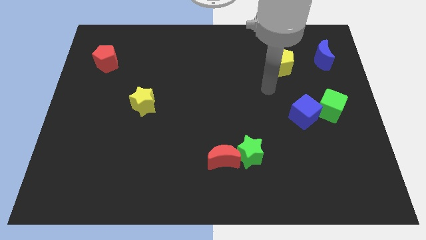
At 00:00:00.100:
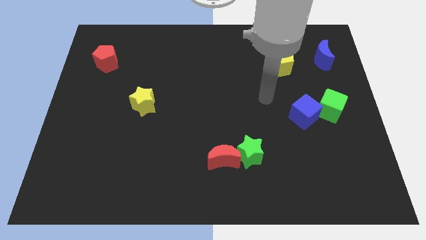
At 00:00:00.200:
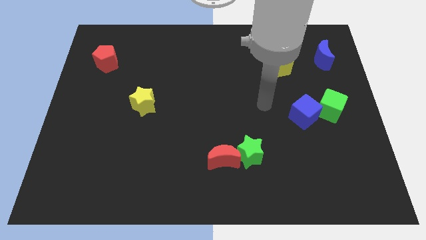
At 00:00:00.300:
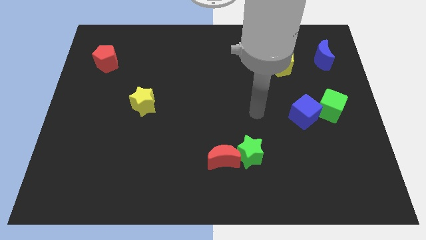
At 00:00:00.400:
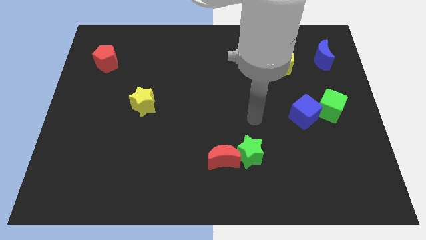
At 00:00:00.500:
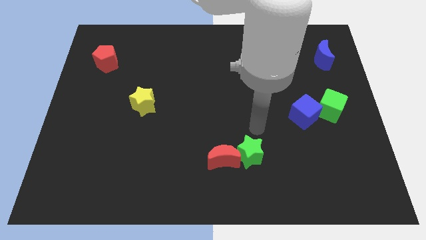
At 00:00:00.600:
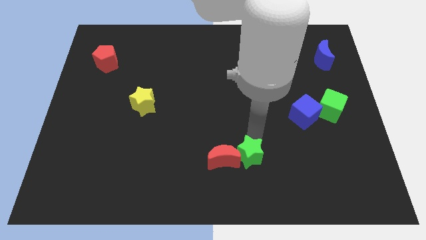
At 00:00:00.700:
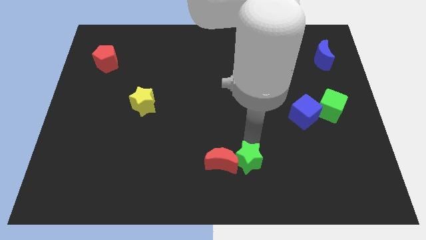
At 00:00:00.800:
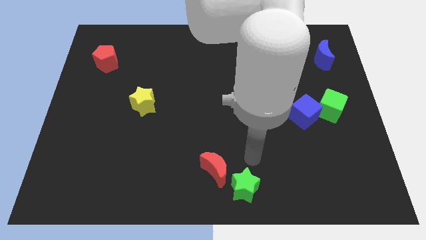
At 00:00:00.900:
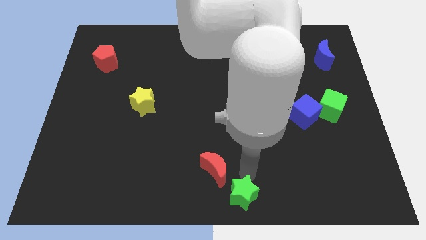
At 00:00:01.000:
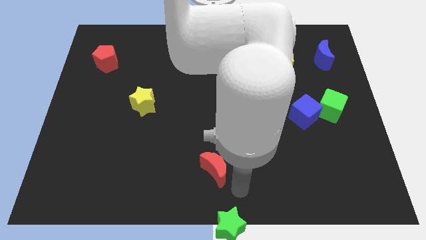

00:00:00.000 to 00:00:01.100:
move the red moon away from the green star

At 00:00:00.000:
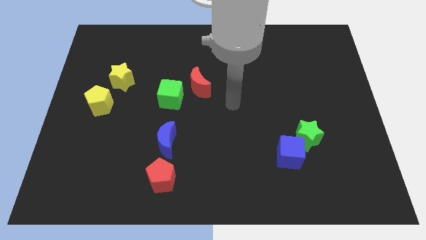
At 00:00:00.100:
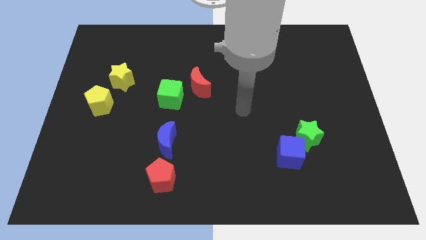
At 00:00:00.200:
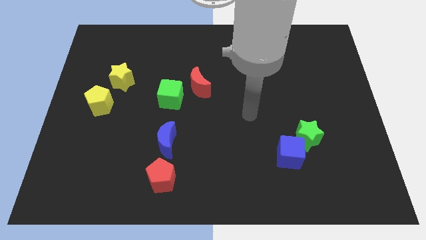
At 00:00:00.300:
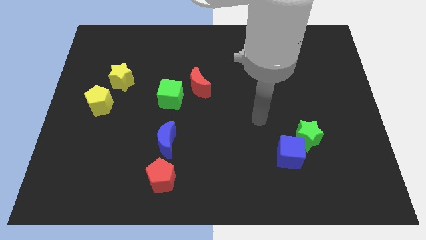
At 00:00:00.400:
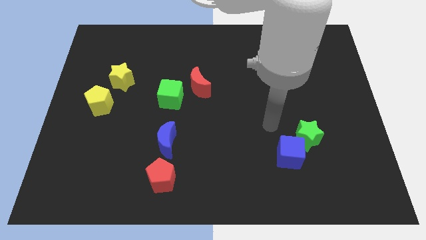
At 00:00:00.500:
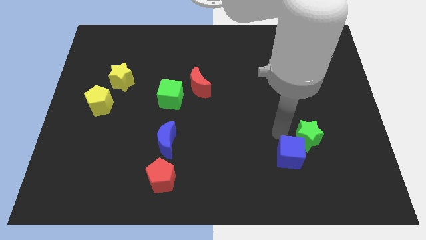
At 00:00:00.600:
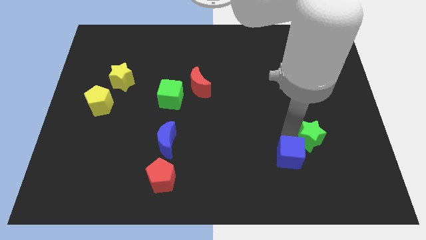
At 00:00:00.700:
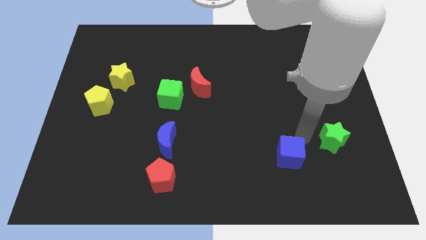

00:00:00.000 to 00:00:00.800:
separate the blue cube from the green star

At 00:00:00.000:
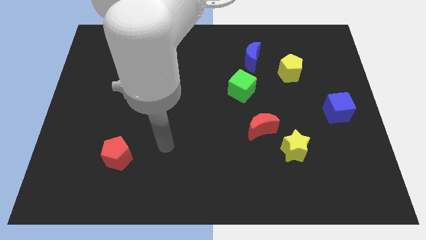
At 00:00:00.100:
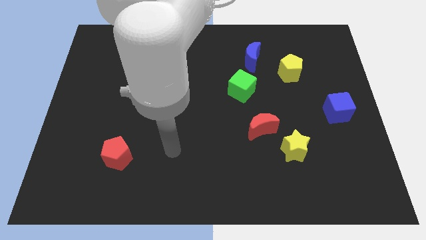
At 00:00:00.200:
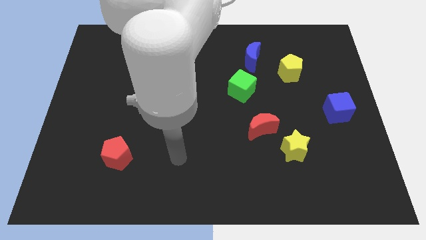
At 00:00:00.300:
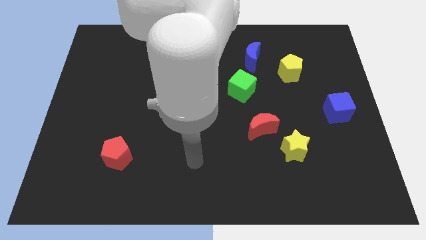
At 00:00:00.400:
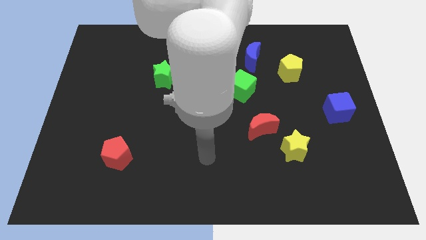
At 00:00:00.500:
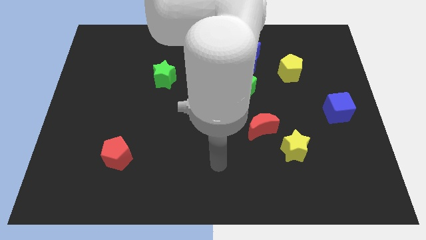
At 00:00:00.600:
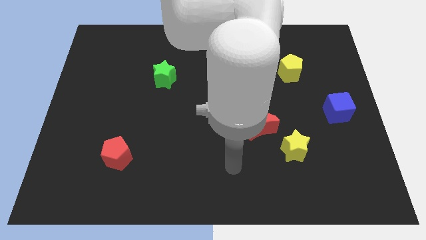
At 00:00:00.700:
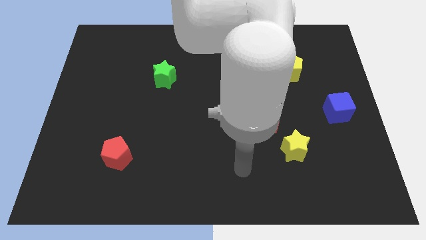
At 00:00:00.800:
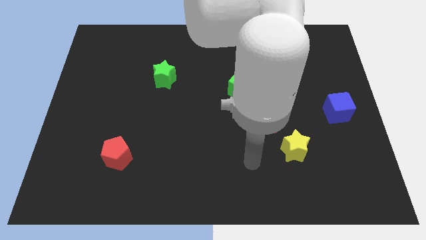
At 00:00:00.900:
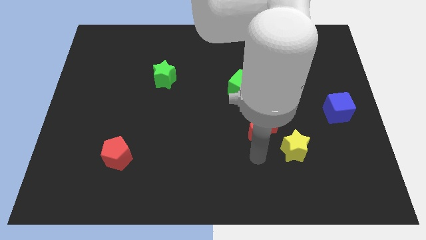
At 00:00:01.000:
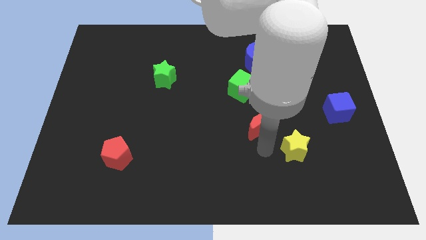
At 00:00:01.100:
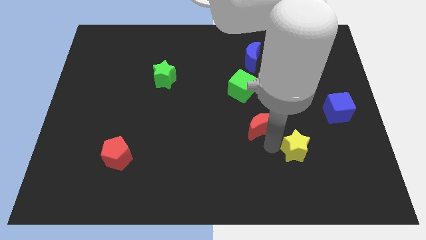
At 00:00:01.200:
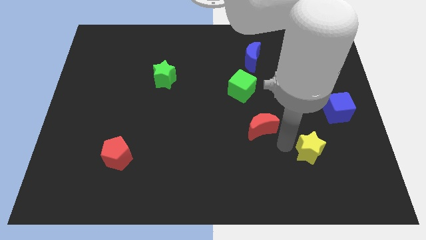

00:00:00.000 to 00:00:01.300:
pull the red moon apart from the yellow star

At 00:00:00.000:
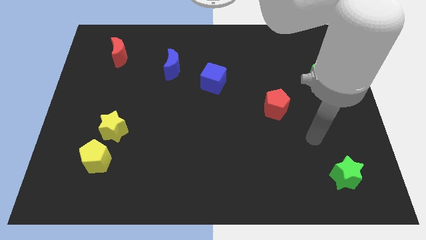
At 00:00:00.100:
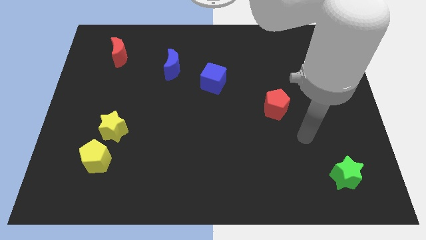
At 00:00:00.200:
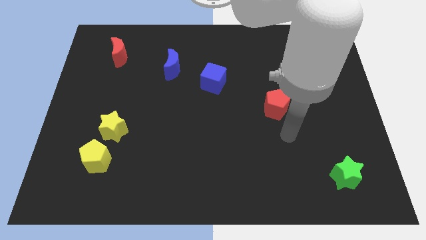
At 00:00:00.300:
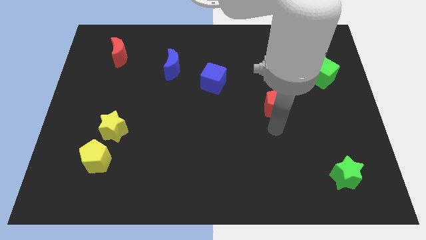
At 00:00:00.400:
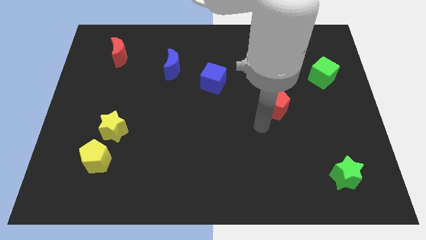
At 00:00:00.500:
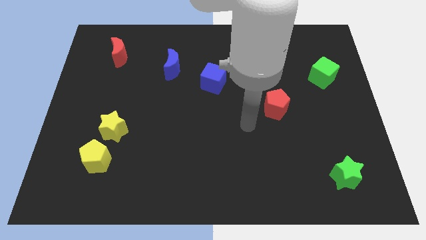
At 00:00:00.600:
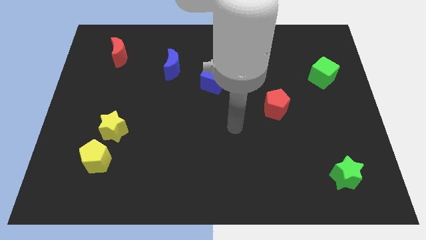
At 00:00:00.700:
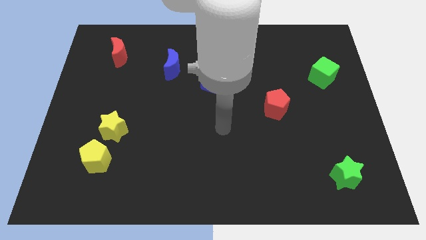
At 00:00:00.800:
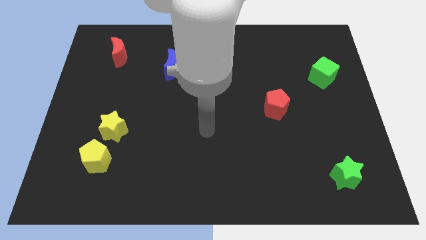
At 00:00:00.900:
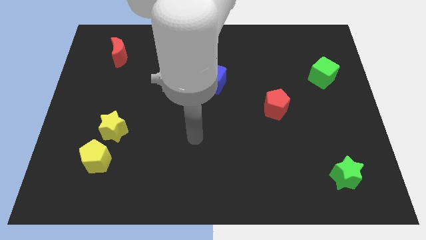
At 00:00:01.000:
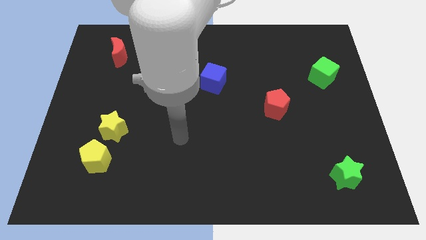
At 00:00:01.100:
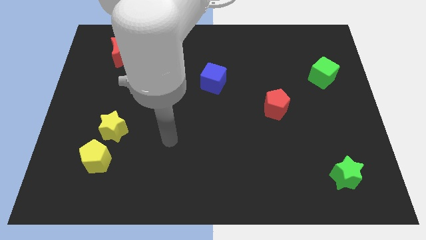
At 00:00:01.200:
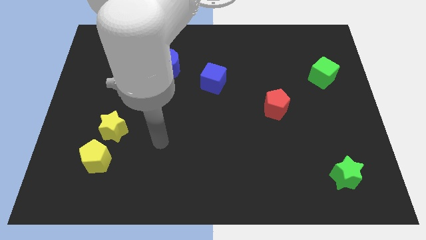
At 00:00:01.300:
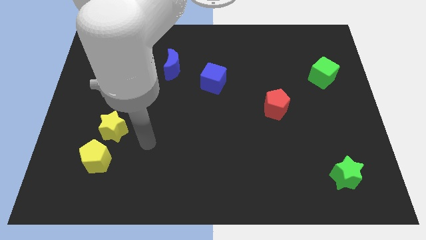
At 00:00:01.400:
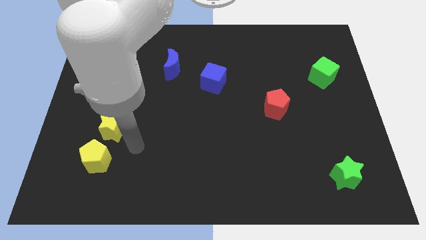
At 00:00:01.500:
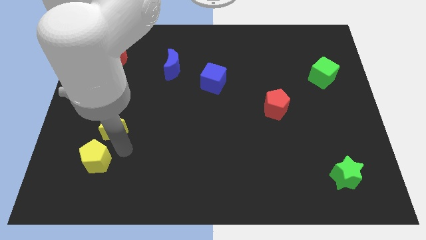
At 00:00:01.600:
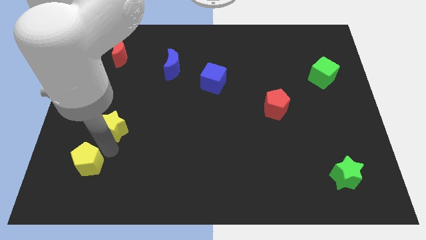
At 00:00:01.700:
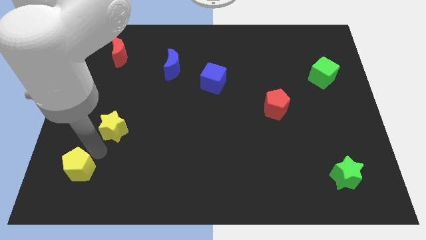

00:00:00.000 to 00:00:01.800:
move the yellow star away from the yellow pentagon

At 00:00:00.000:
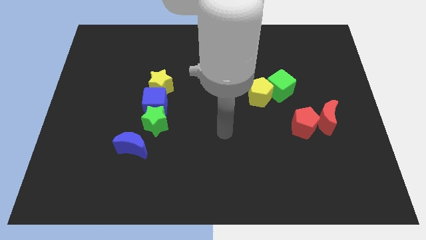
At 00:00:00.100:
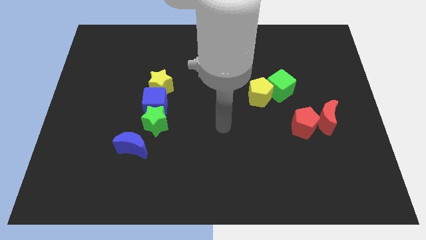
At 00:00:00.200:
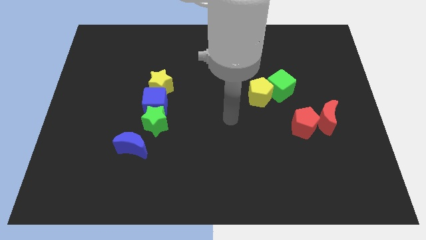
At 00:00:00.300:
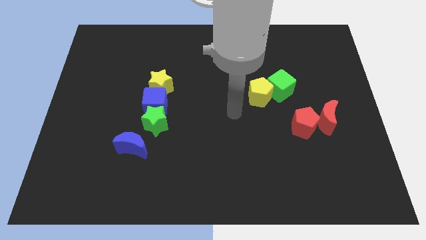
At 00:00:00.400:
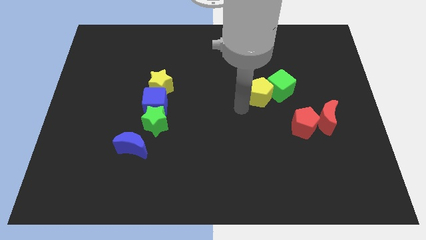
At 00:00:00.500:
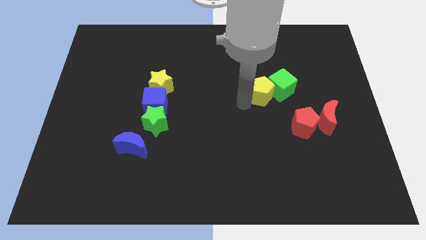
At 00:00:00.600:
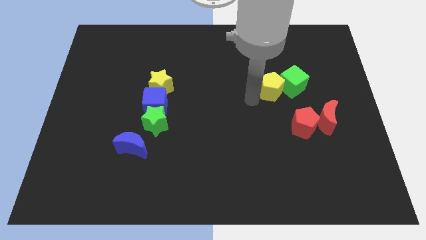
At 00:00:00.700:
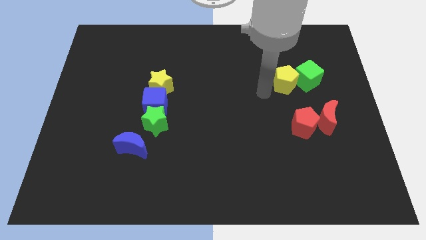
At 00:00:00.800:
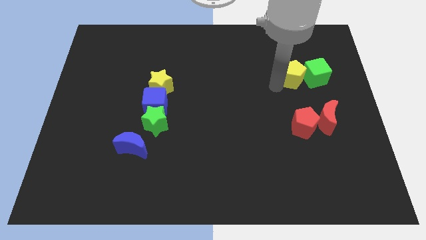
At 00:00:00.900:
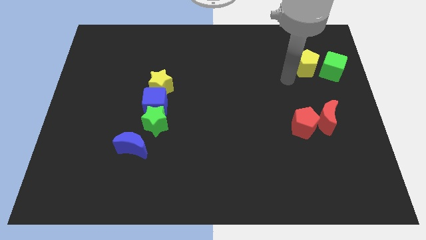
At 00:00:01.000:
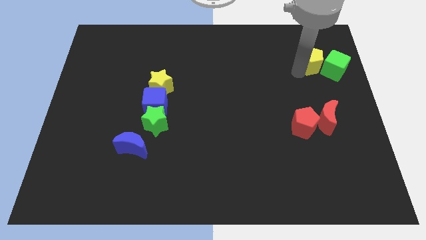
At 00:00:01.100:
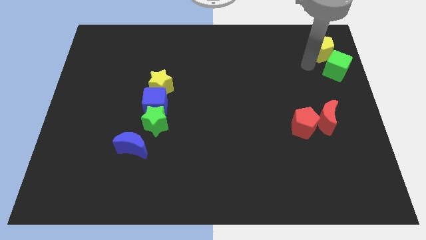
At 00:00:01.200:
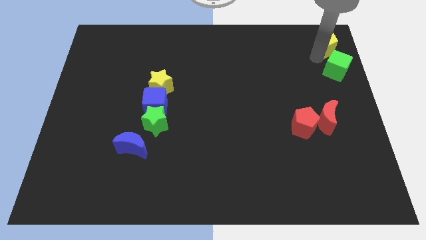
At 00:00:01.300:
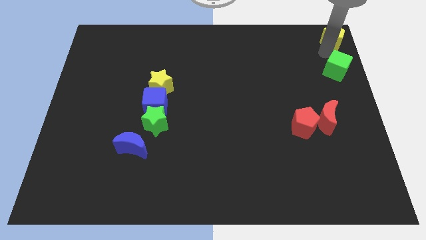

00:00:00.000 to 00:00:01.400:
separate the green cube from the yellow pentagon

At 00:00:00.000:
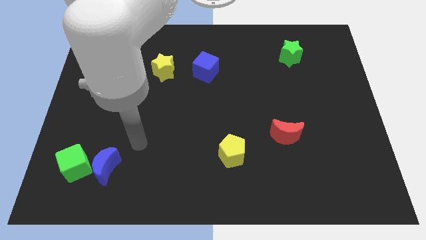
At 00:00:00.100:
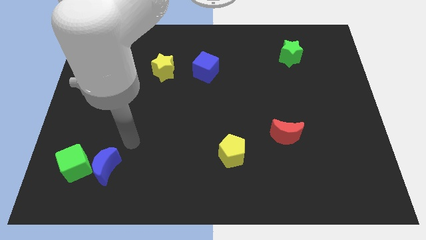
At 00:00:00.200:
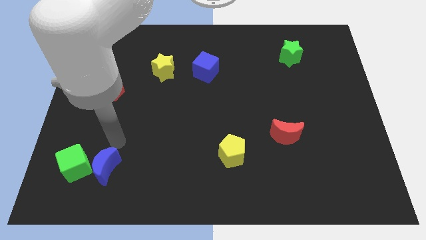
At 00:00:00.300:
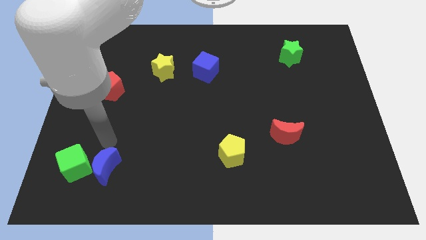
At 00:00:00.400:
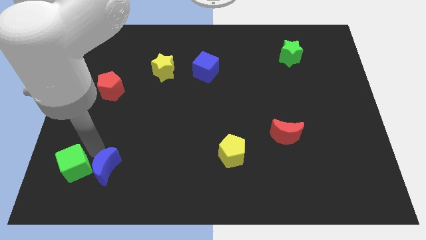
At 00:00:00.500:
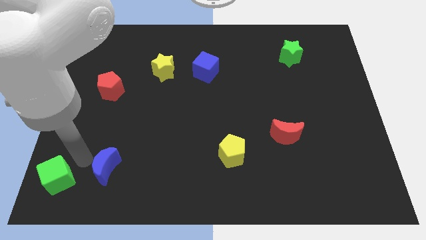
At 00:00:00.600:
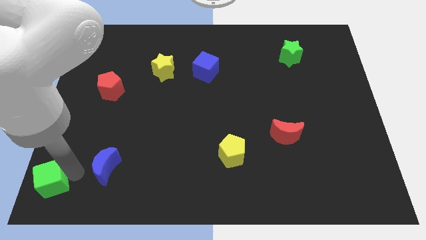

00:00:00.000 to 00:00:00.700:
pull the blue moon apart from the green cube

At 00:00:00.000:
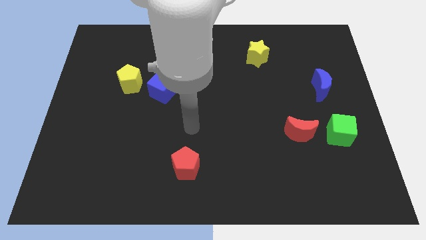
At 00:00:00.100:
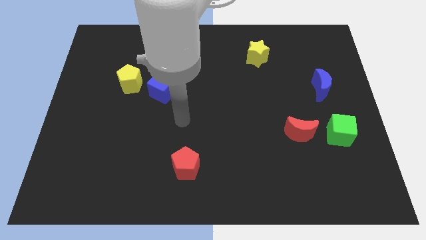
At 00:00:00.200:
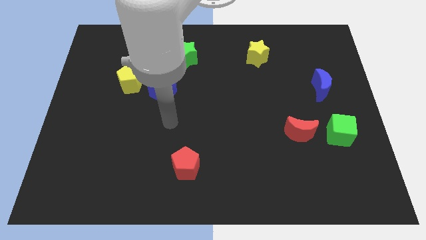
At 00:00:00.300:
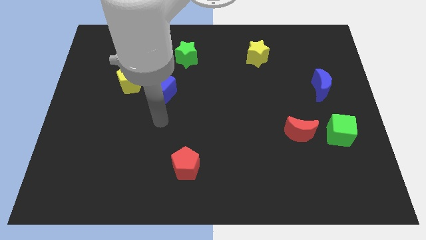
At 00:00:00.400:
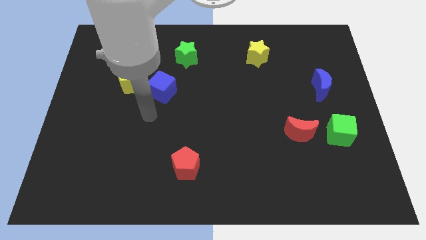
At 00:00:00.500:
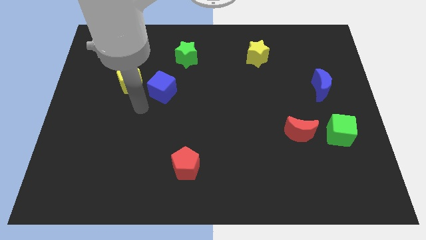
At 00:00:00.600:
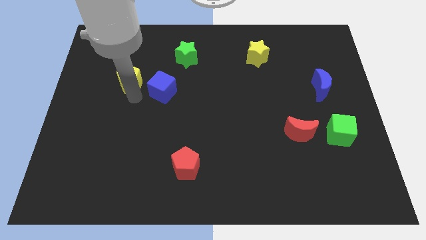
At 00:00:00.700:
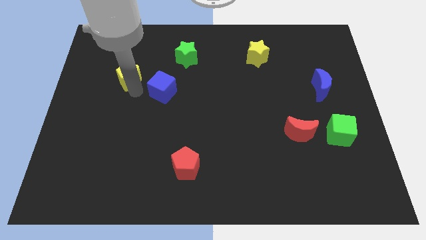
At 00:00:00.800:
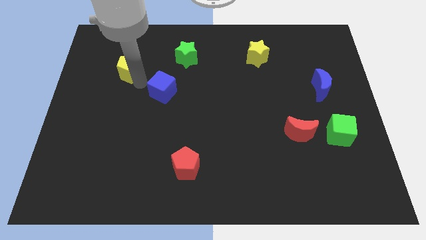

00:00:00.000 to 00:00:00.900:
separate the blue cube from the yellow pentagon

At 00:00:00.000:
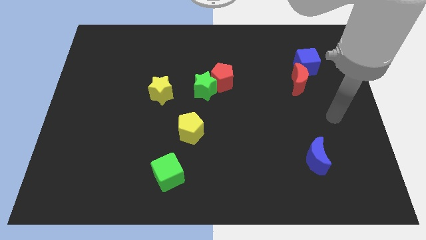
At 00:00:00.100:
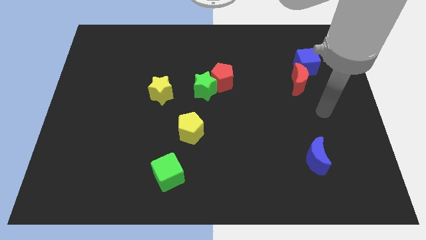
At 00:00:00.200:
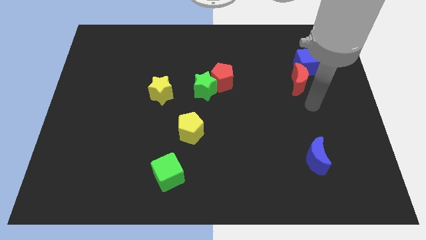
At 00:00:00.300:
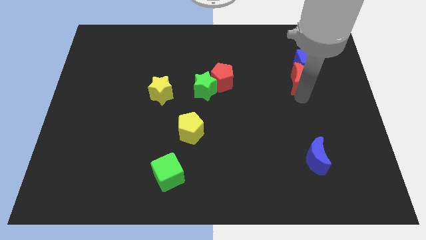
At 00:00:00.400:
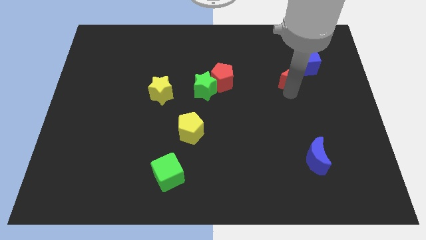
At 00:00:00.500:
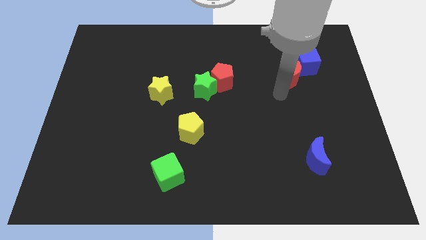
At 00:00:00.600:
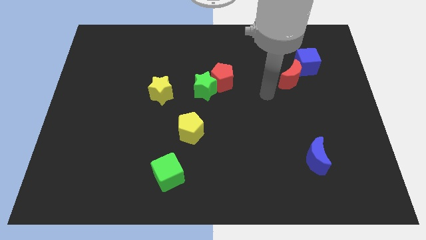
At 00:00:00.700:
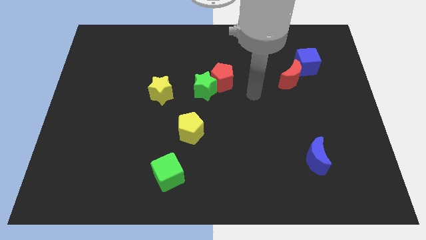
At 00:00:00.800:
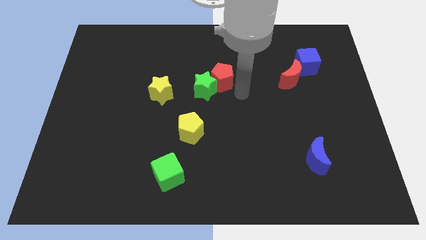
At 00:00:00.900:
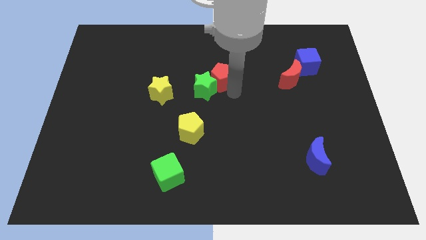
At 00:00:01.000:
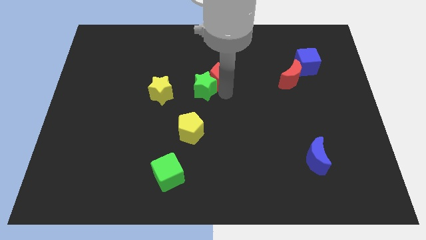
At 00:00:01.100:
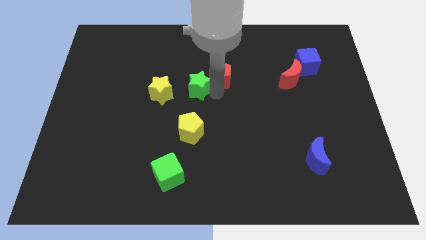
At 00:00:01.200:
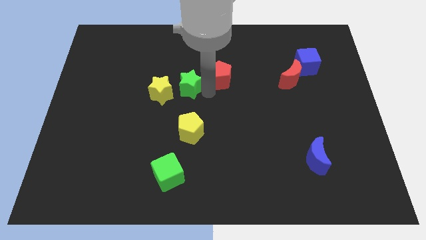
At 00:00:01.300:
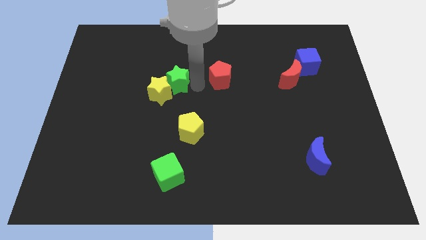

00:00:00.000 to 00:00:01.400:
separate the red pentagon from the green star
